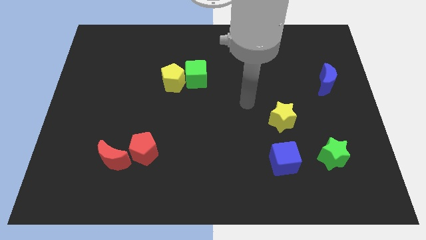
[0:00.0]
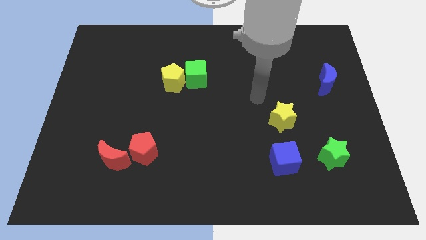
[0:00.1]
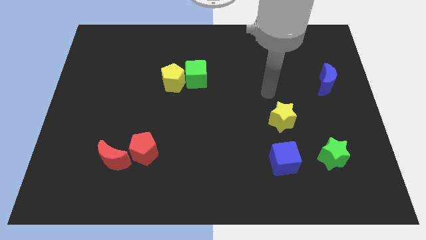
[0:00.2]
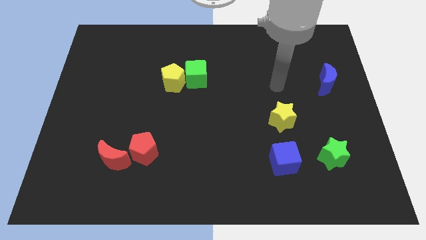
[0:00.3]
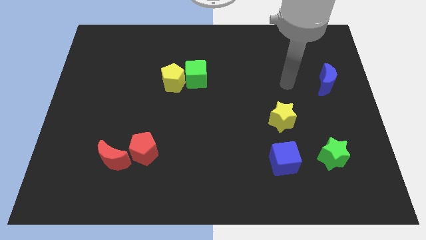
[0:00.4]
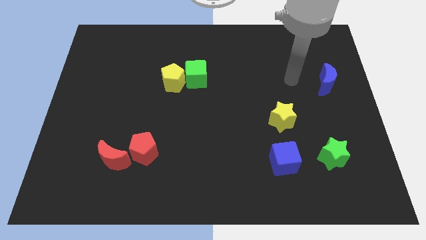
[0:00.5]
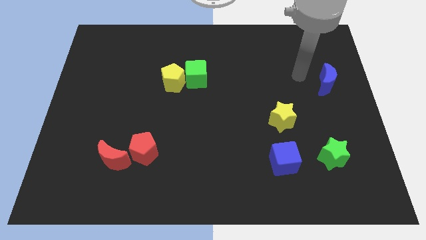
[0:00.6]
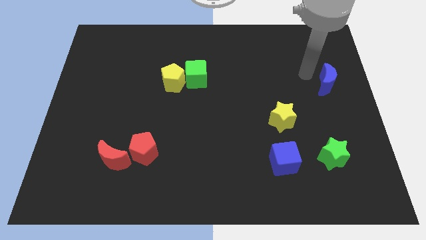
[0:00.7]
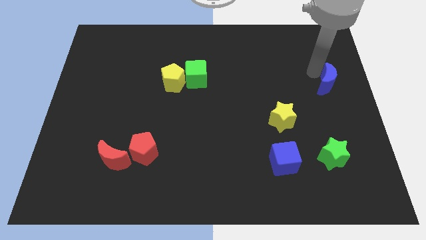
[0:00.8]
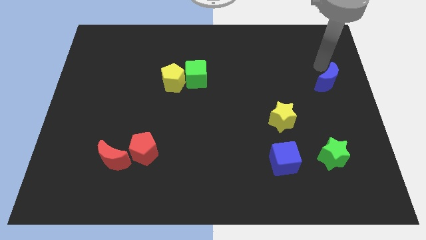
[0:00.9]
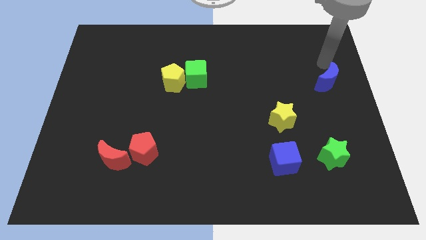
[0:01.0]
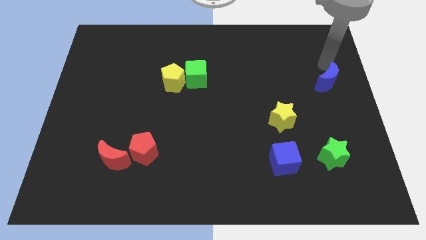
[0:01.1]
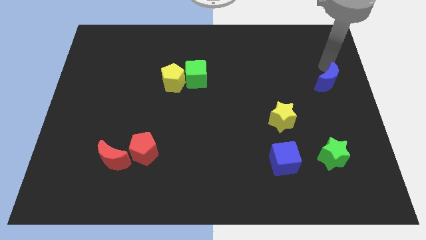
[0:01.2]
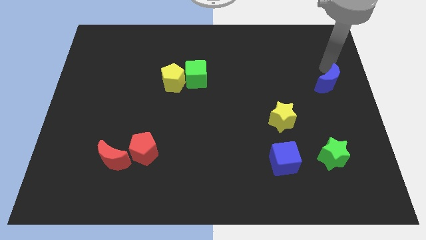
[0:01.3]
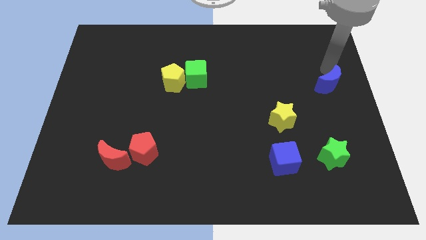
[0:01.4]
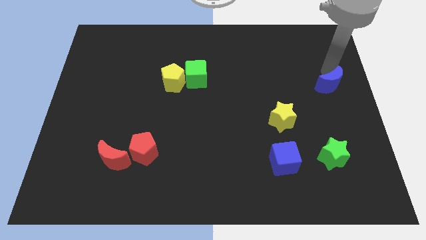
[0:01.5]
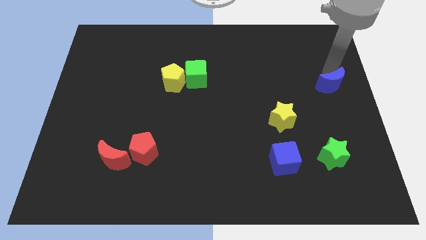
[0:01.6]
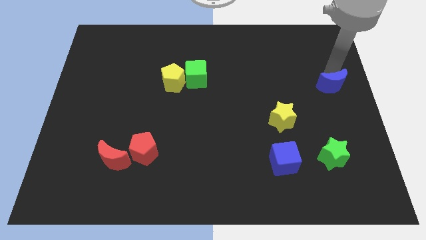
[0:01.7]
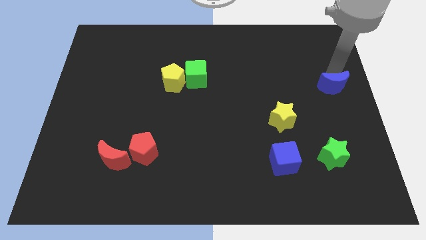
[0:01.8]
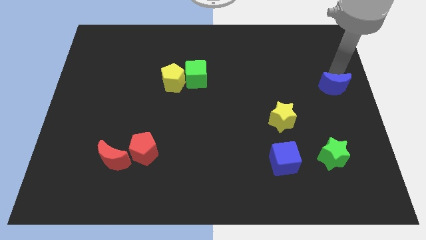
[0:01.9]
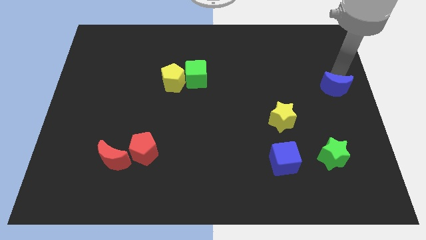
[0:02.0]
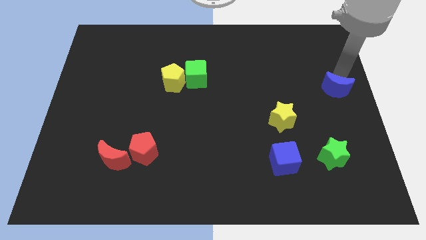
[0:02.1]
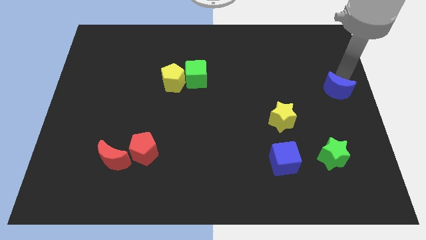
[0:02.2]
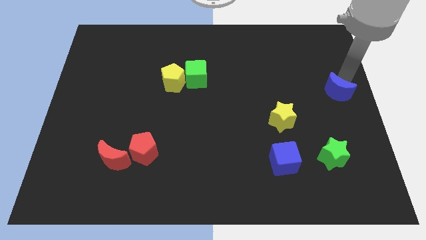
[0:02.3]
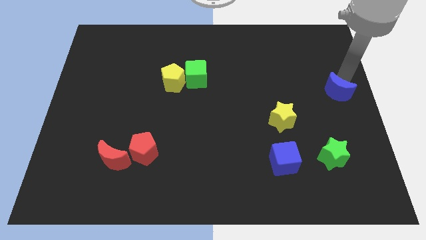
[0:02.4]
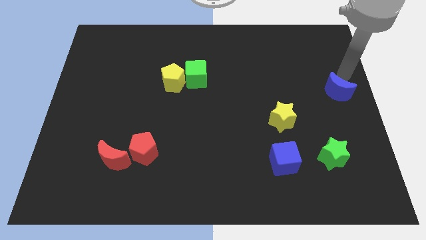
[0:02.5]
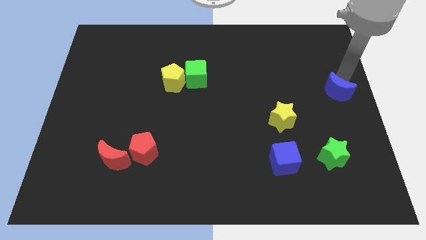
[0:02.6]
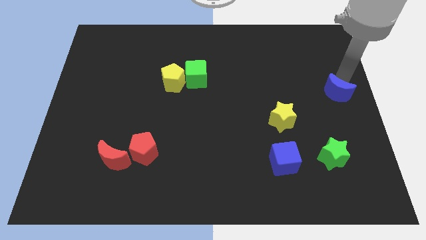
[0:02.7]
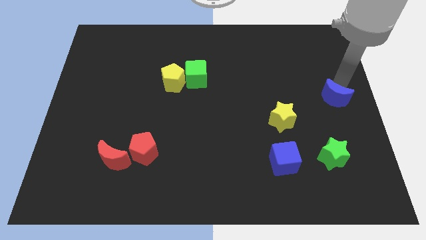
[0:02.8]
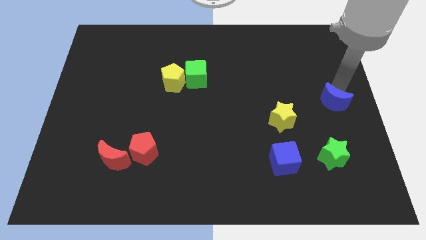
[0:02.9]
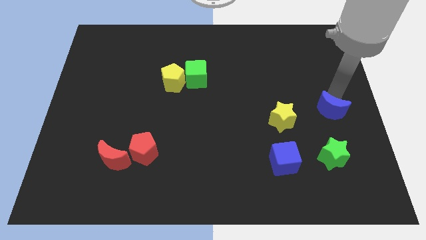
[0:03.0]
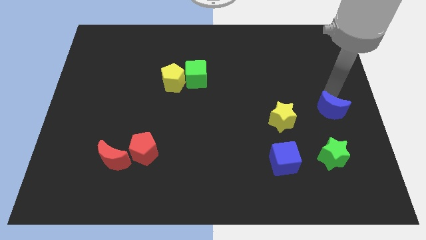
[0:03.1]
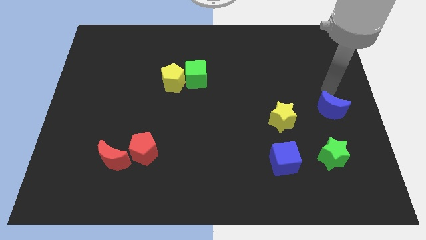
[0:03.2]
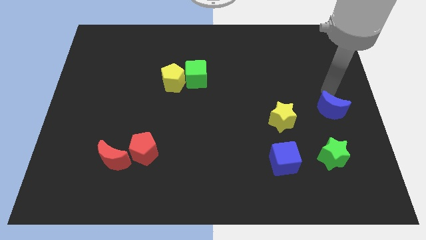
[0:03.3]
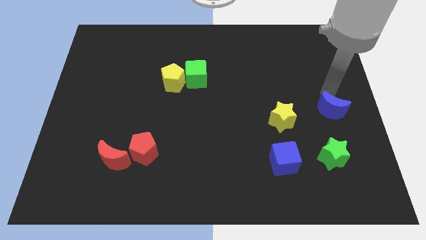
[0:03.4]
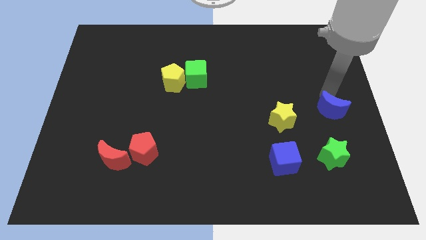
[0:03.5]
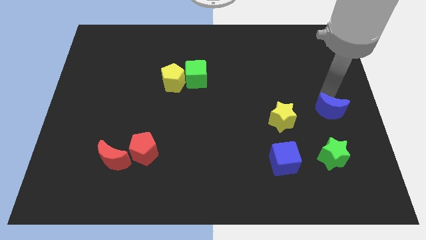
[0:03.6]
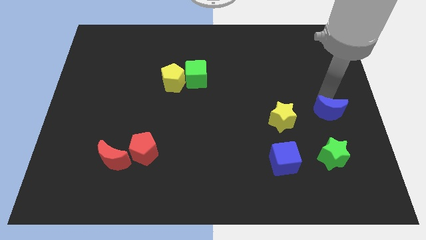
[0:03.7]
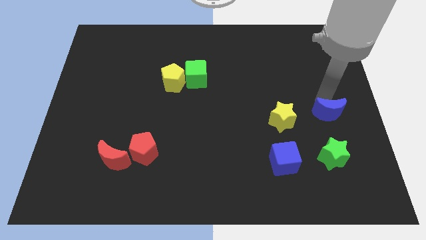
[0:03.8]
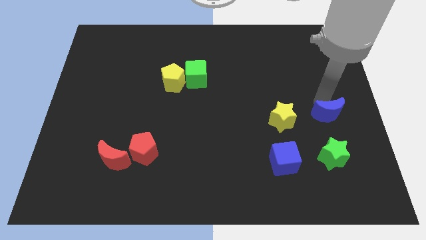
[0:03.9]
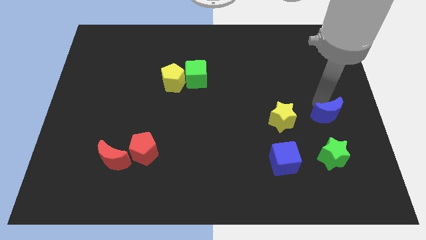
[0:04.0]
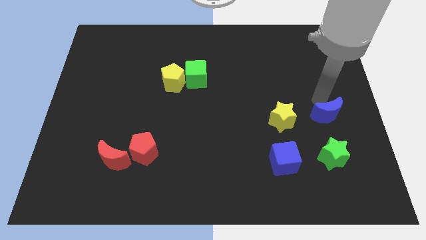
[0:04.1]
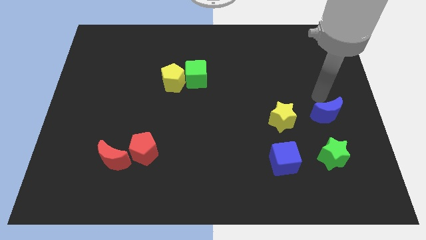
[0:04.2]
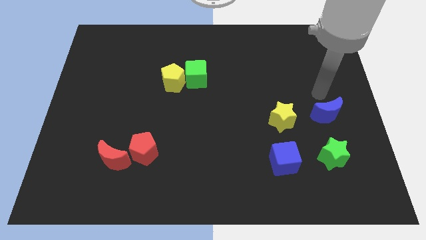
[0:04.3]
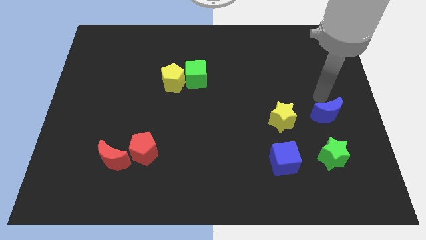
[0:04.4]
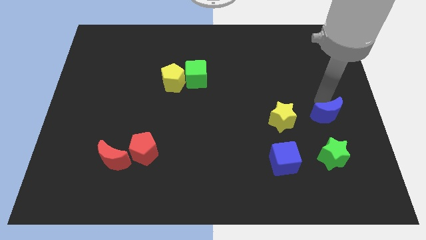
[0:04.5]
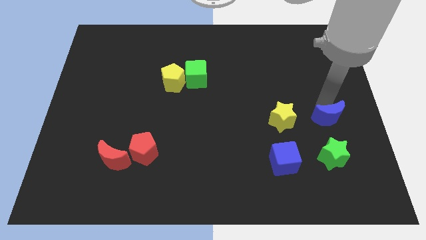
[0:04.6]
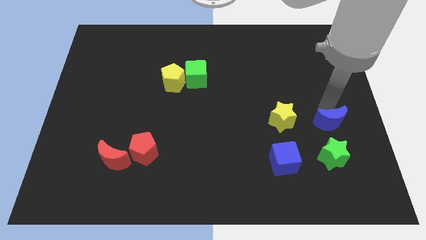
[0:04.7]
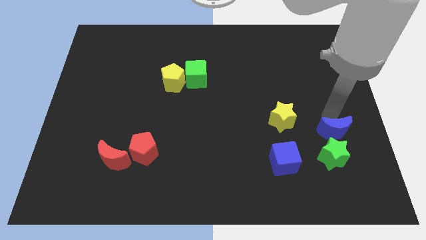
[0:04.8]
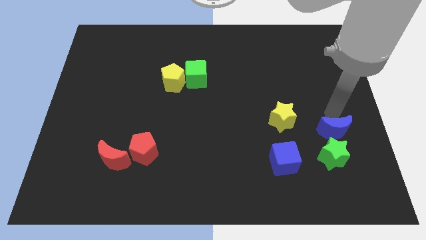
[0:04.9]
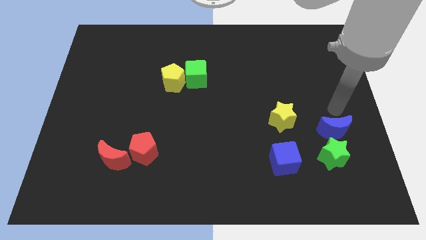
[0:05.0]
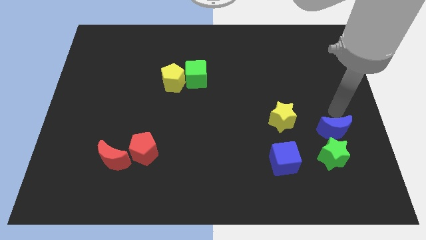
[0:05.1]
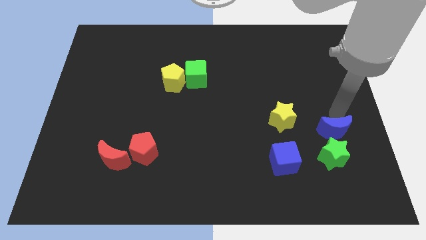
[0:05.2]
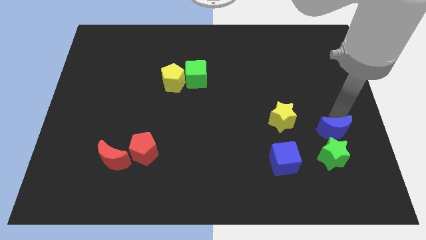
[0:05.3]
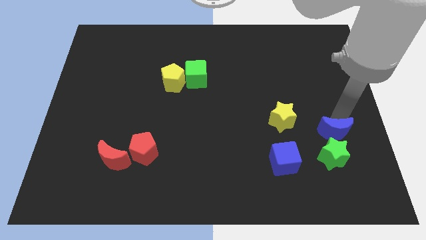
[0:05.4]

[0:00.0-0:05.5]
push the blue moon to the green star

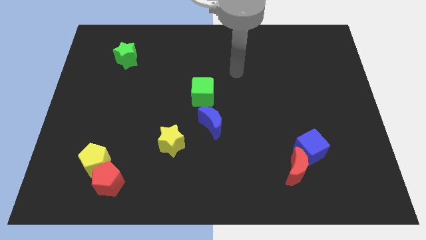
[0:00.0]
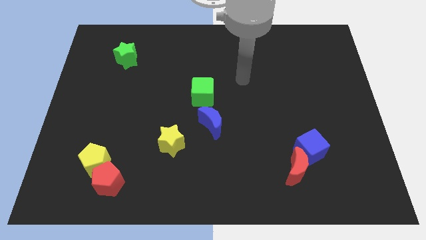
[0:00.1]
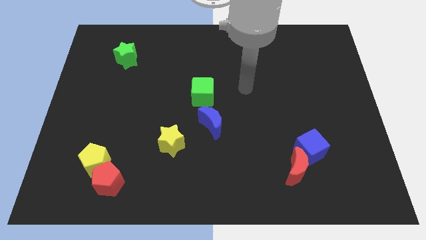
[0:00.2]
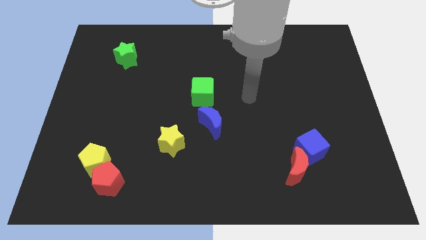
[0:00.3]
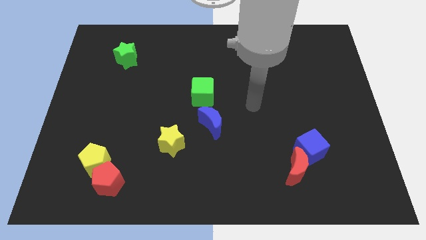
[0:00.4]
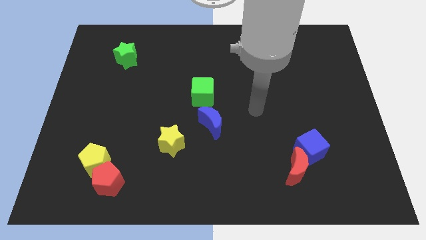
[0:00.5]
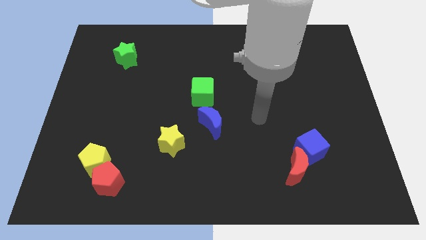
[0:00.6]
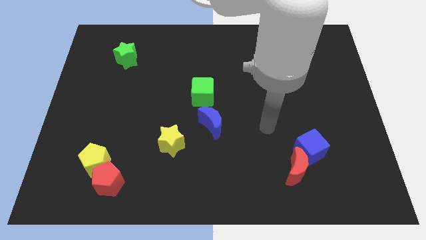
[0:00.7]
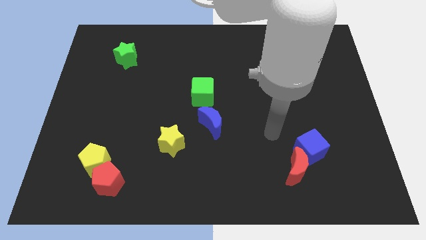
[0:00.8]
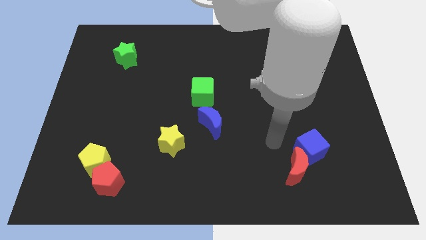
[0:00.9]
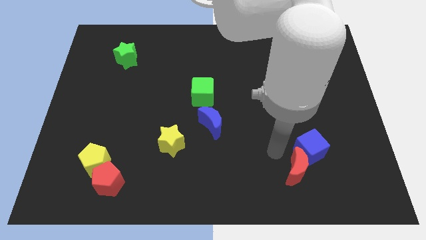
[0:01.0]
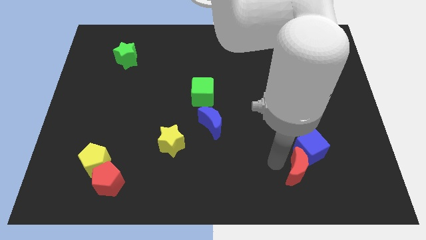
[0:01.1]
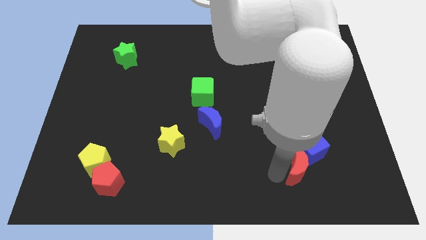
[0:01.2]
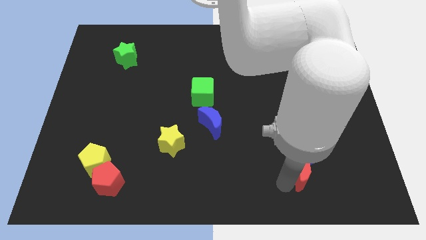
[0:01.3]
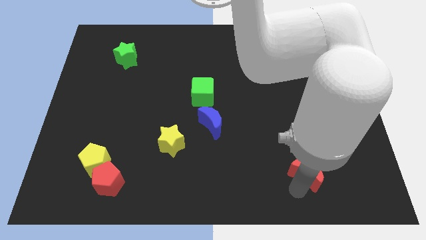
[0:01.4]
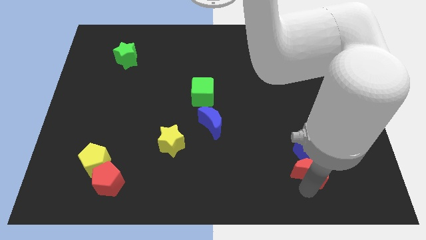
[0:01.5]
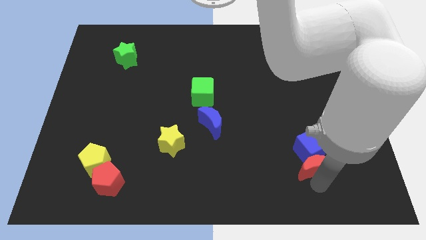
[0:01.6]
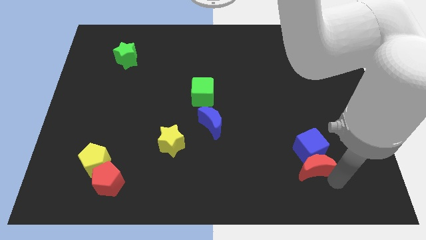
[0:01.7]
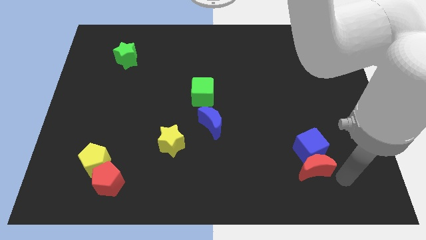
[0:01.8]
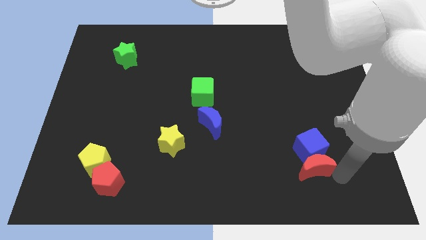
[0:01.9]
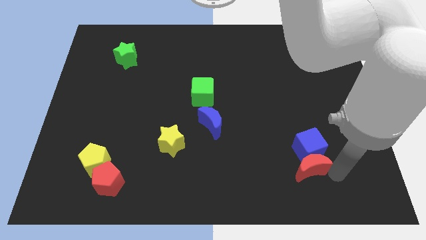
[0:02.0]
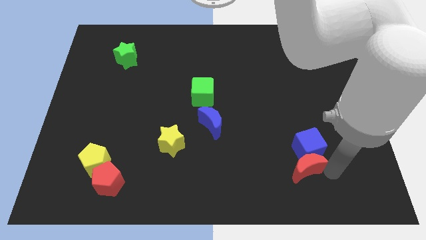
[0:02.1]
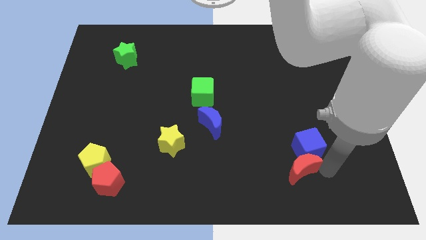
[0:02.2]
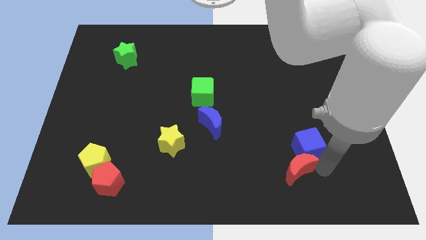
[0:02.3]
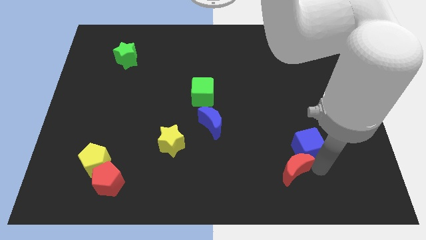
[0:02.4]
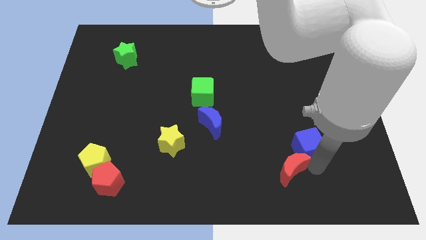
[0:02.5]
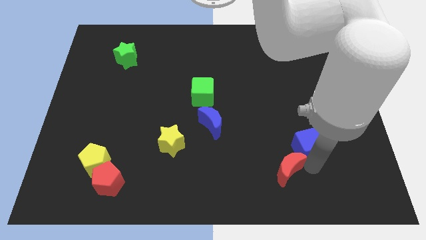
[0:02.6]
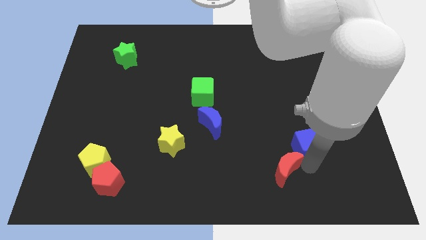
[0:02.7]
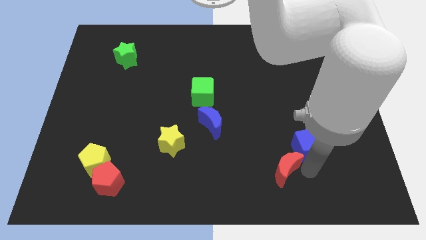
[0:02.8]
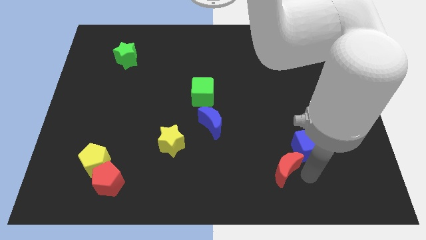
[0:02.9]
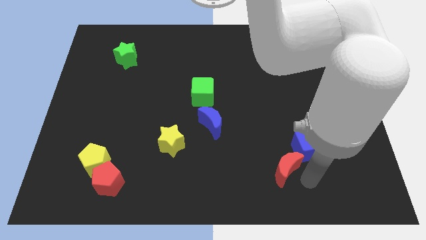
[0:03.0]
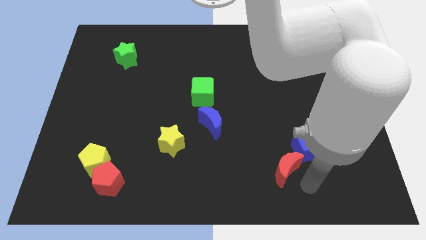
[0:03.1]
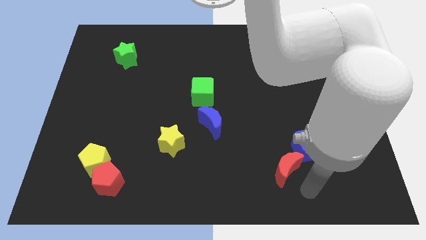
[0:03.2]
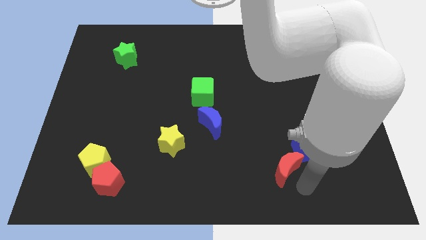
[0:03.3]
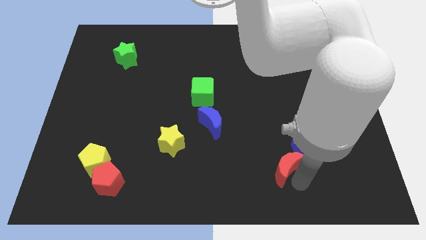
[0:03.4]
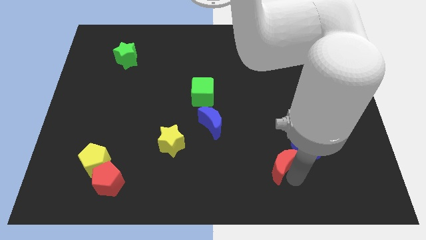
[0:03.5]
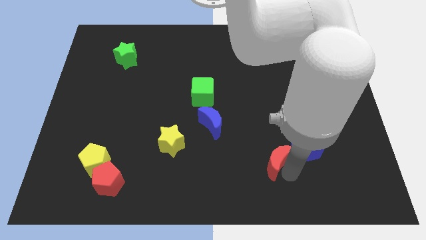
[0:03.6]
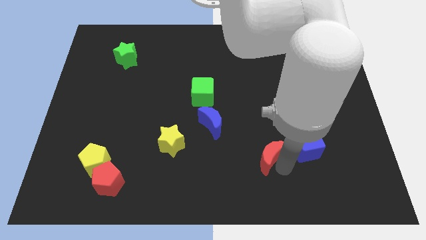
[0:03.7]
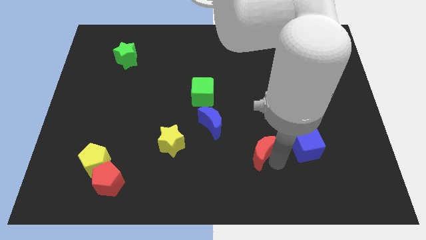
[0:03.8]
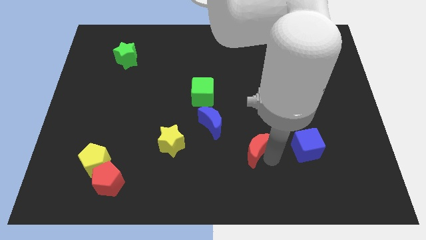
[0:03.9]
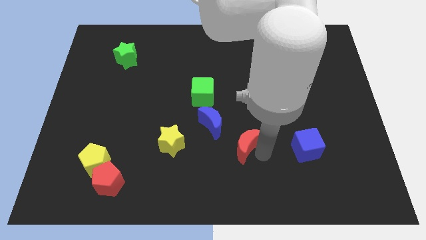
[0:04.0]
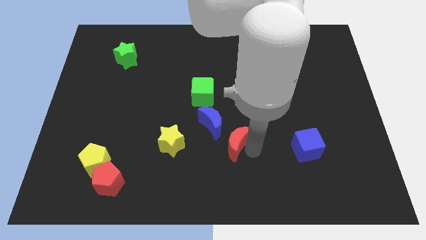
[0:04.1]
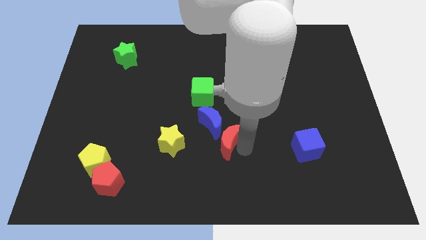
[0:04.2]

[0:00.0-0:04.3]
move the red moon close to the blue moon
